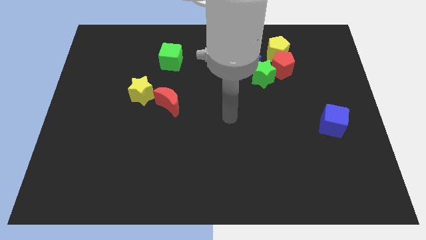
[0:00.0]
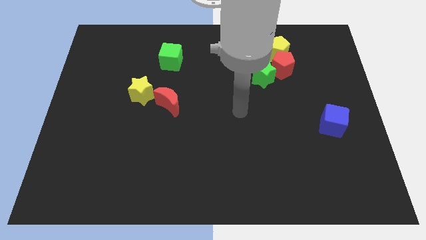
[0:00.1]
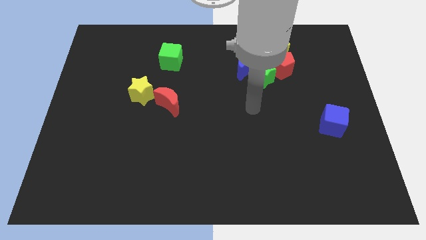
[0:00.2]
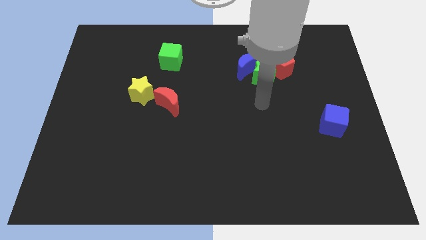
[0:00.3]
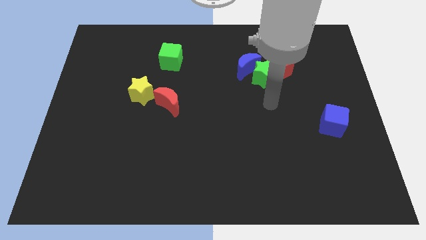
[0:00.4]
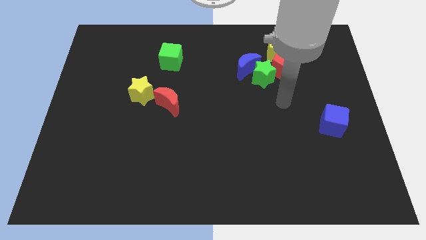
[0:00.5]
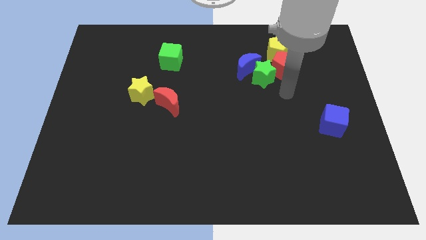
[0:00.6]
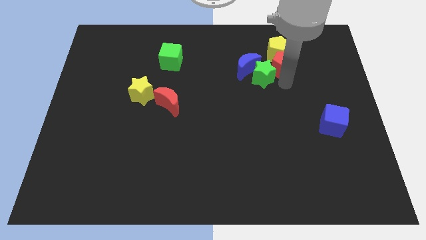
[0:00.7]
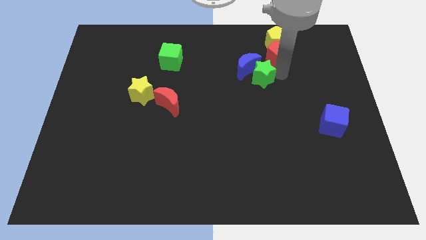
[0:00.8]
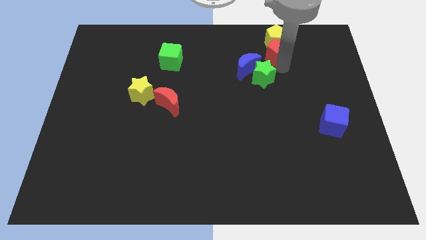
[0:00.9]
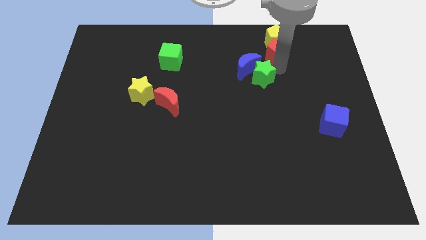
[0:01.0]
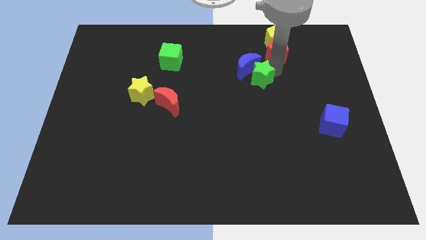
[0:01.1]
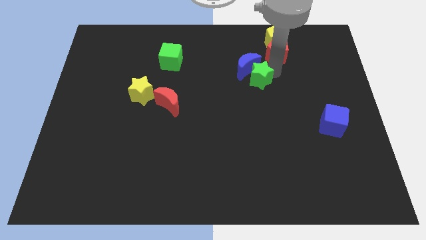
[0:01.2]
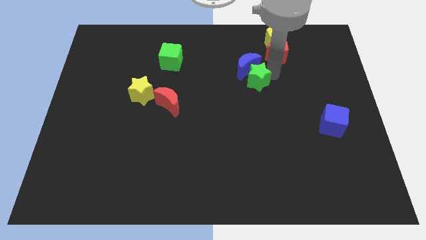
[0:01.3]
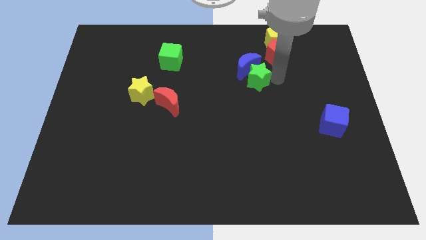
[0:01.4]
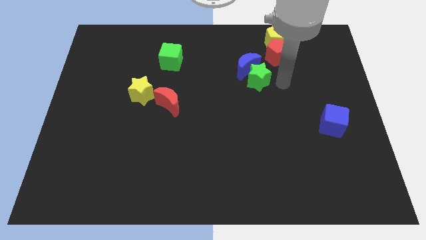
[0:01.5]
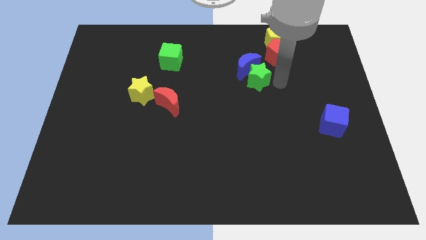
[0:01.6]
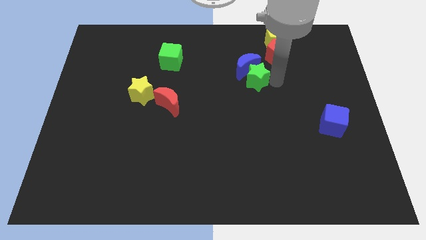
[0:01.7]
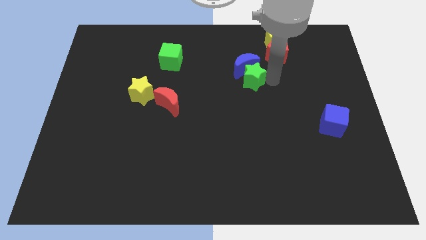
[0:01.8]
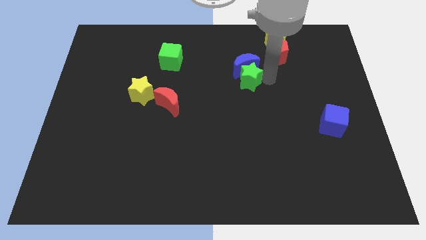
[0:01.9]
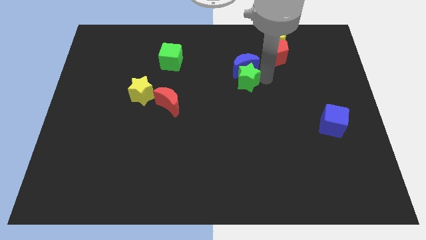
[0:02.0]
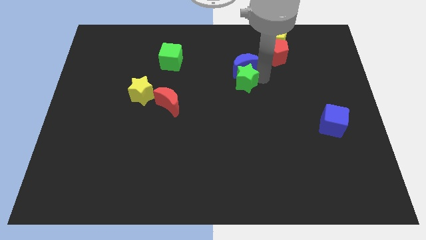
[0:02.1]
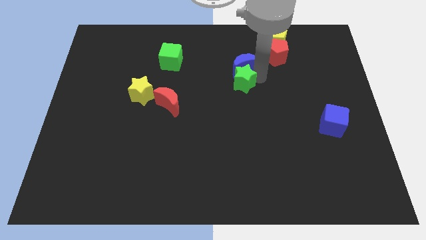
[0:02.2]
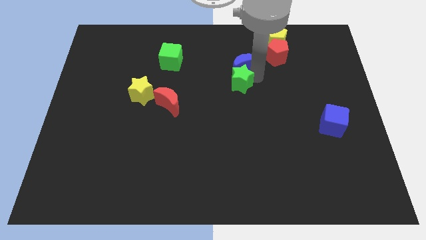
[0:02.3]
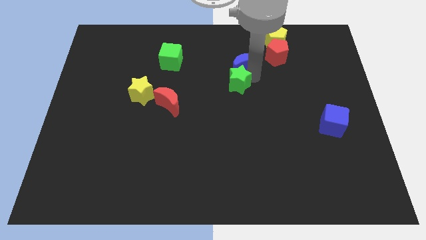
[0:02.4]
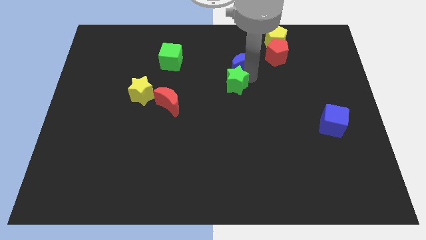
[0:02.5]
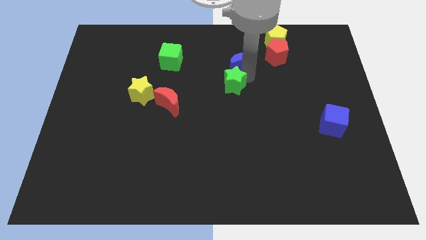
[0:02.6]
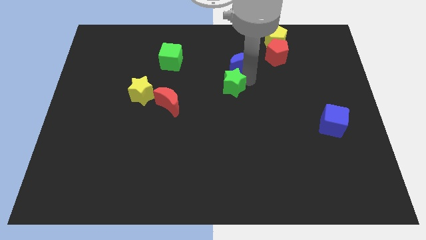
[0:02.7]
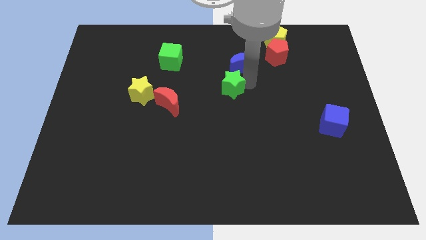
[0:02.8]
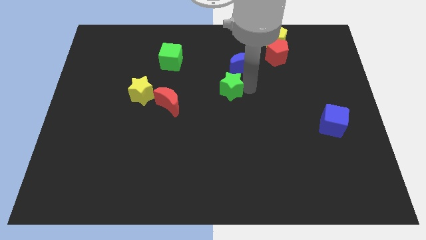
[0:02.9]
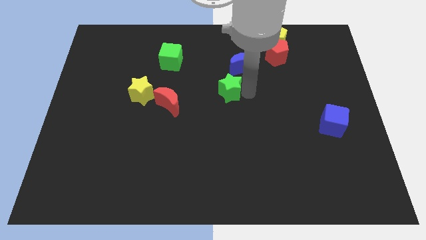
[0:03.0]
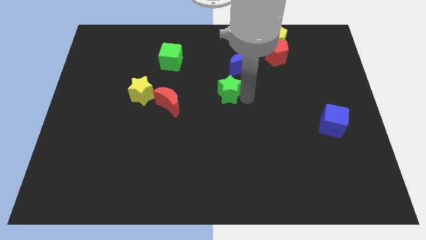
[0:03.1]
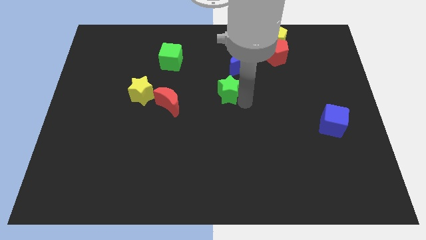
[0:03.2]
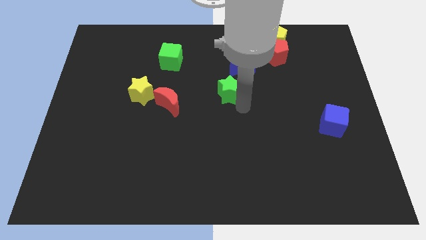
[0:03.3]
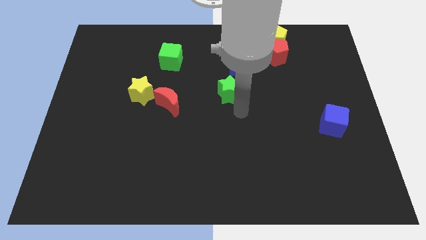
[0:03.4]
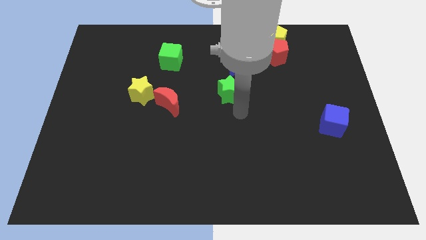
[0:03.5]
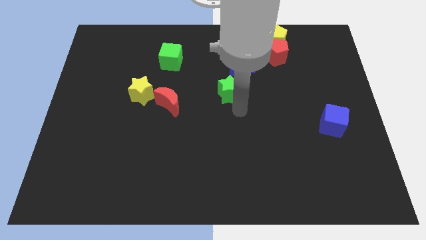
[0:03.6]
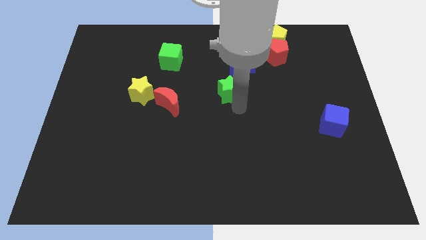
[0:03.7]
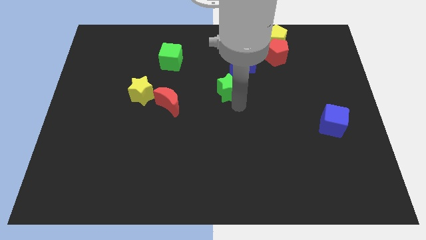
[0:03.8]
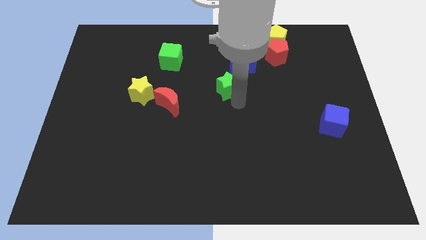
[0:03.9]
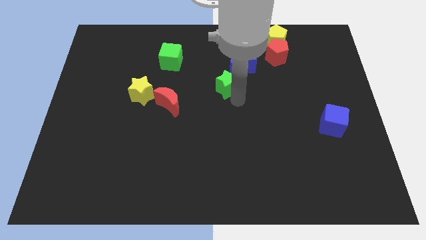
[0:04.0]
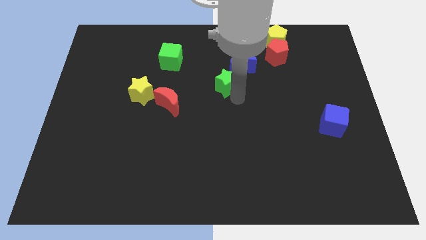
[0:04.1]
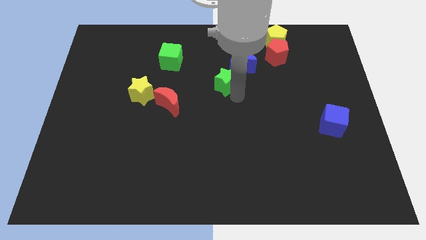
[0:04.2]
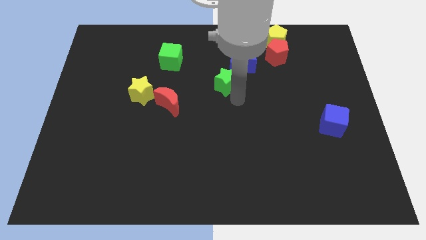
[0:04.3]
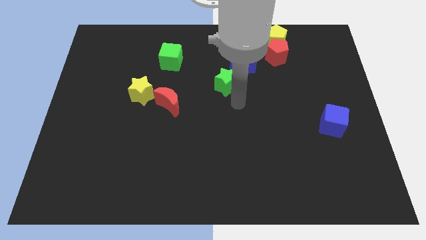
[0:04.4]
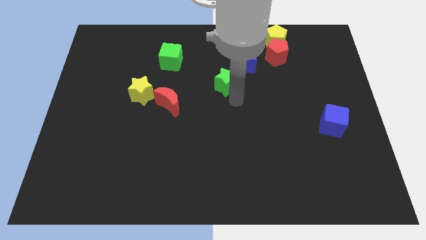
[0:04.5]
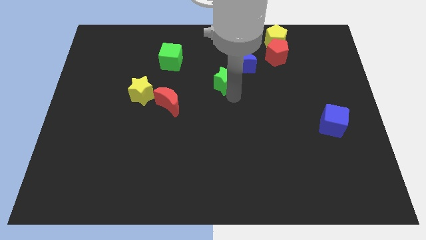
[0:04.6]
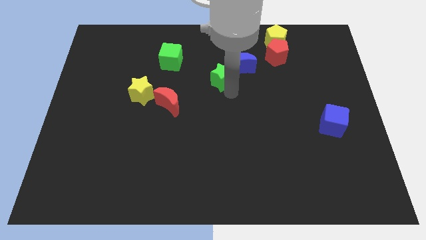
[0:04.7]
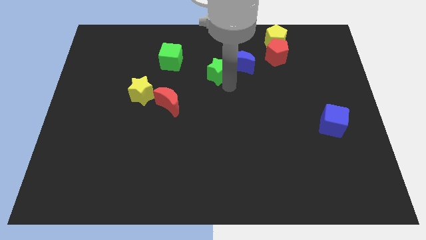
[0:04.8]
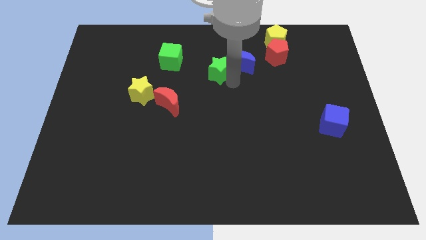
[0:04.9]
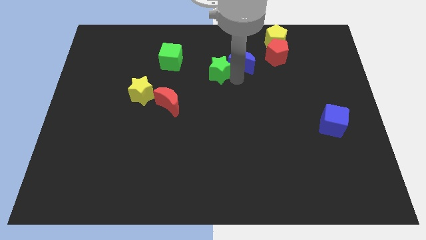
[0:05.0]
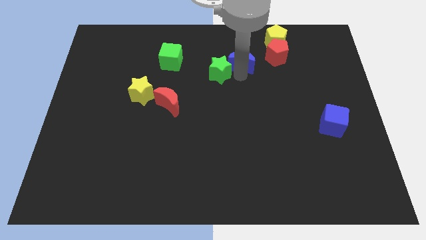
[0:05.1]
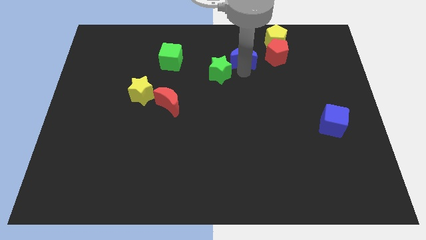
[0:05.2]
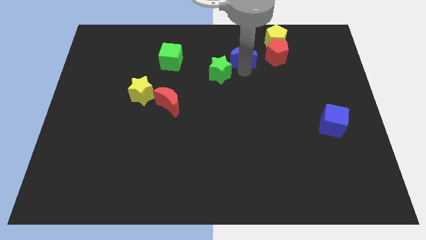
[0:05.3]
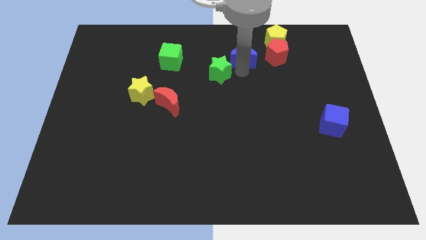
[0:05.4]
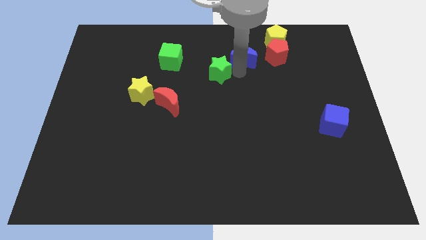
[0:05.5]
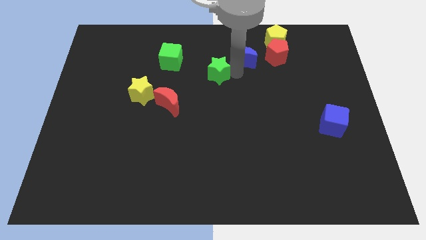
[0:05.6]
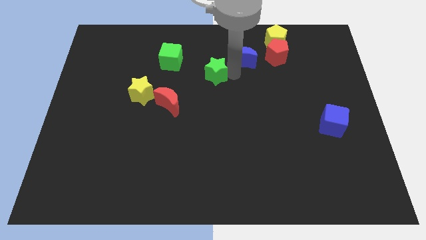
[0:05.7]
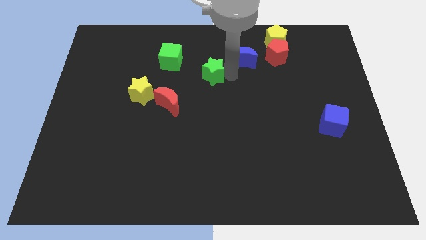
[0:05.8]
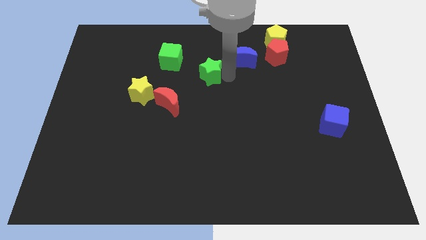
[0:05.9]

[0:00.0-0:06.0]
put the green star to the bottom right of the green cube

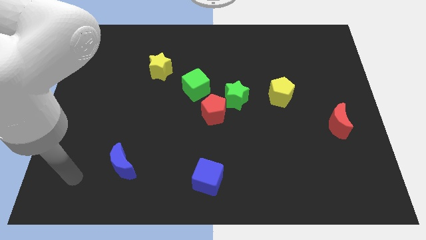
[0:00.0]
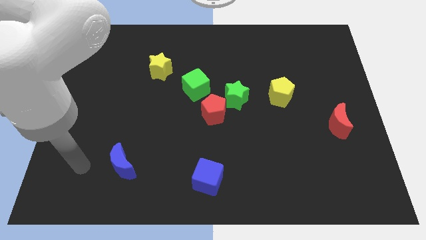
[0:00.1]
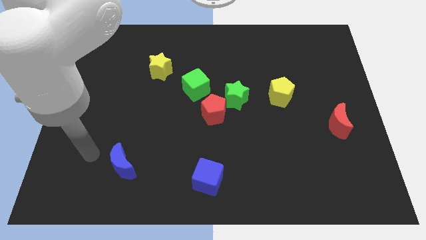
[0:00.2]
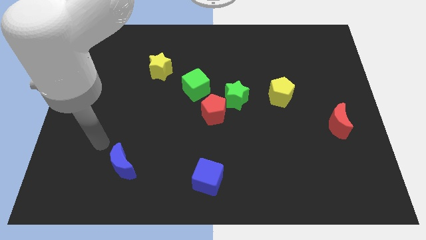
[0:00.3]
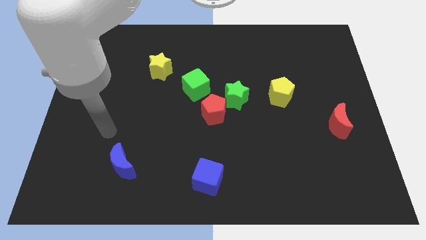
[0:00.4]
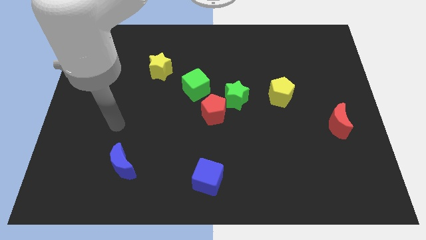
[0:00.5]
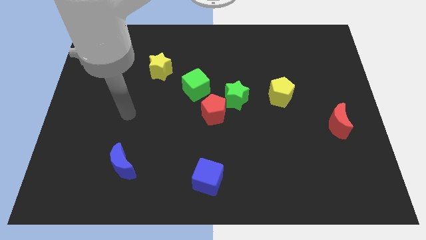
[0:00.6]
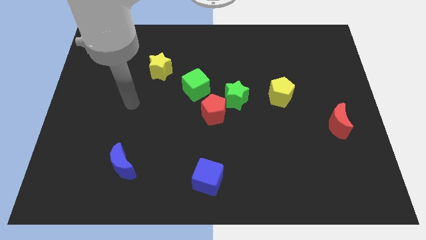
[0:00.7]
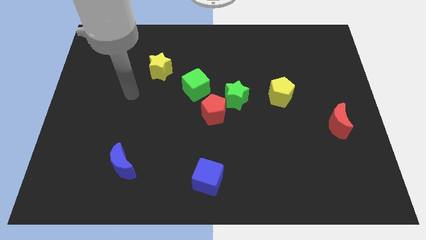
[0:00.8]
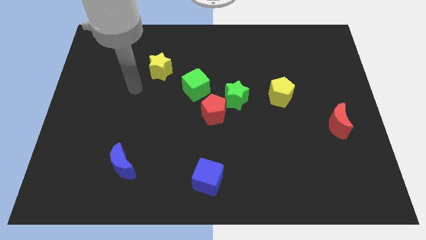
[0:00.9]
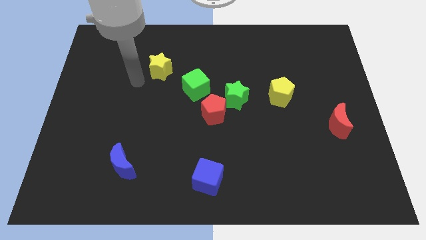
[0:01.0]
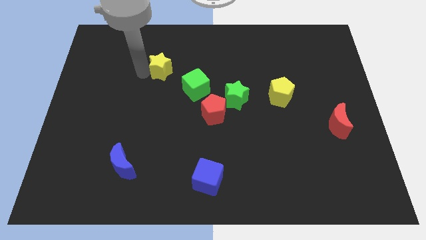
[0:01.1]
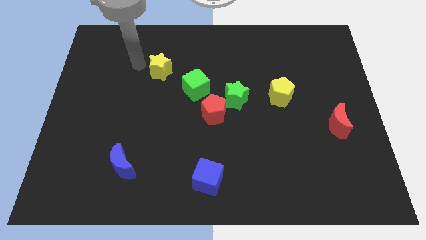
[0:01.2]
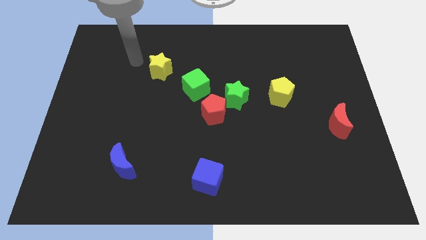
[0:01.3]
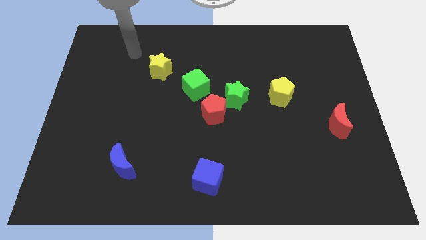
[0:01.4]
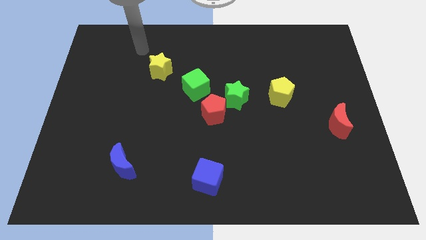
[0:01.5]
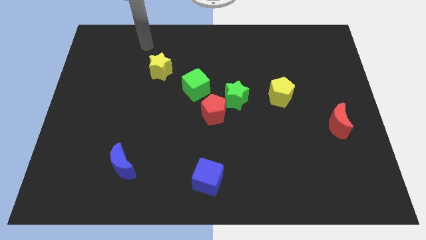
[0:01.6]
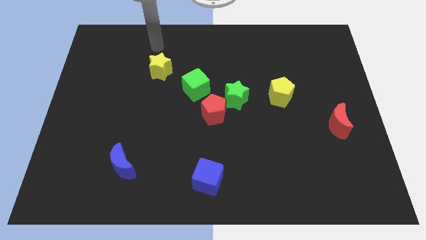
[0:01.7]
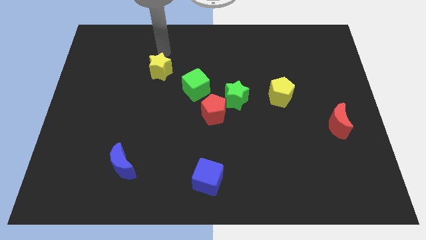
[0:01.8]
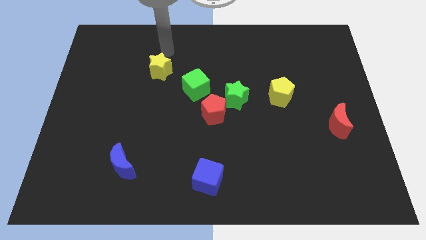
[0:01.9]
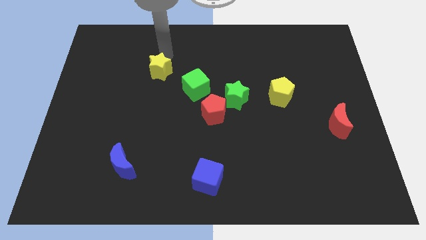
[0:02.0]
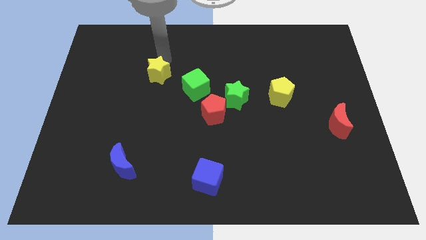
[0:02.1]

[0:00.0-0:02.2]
push the yellow star left of the green cube
